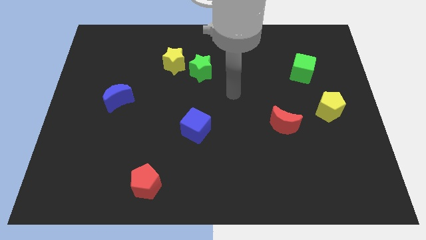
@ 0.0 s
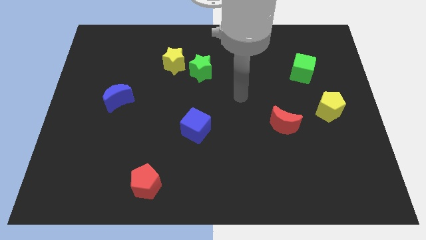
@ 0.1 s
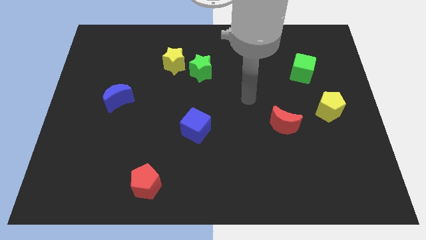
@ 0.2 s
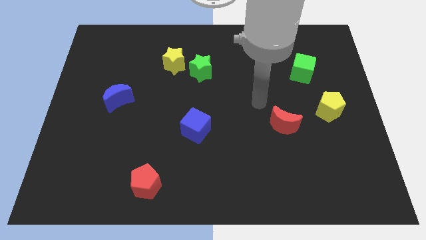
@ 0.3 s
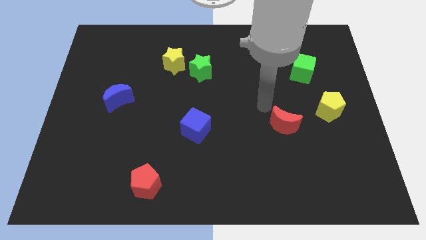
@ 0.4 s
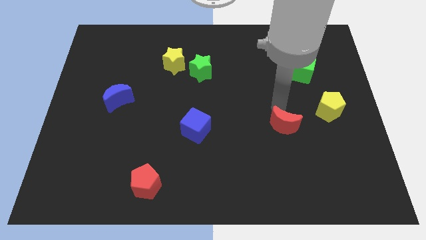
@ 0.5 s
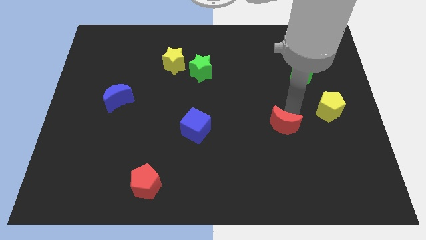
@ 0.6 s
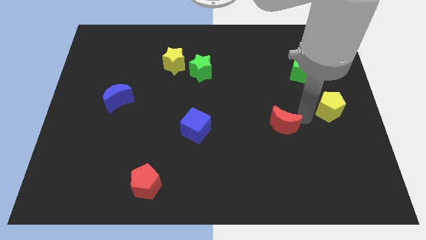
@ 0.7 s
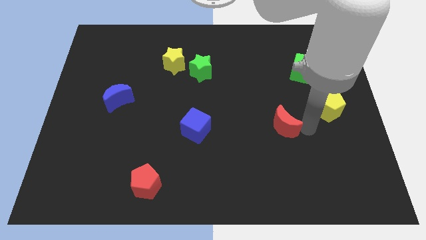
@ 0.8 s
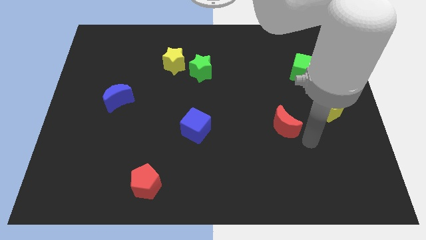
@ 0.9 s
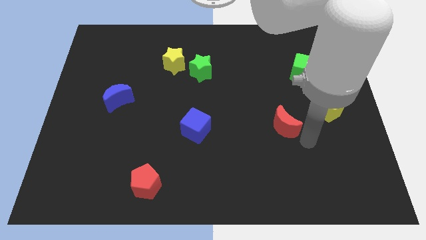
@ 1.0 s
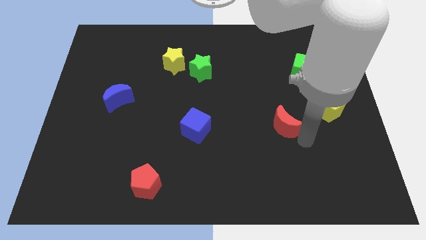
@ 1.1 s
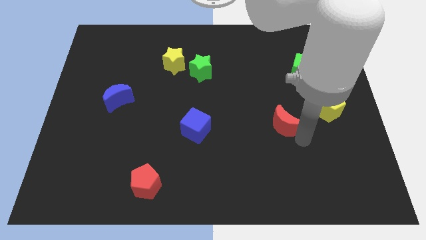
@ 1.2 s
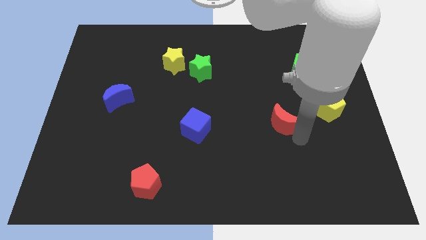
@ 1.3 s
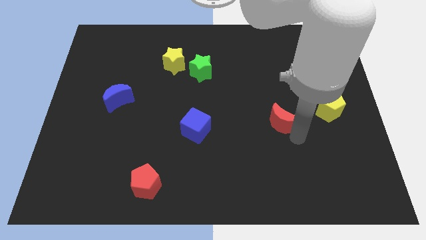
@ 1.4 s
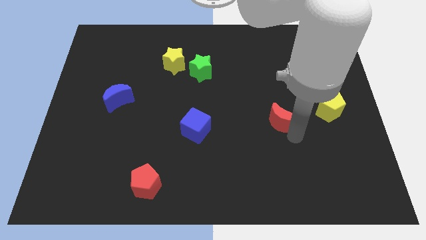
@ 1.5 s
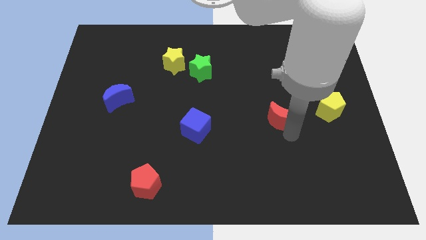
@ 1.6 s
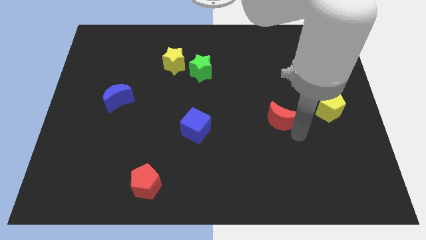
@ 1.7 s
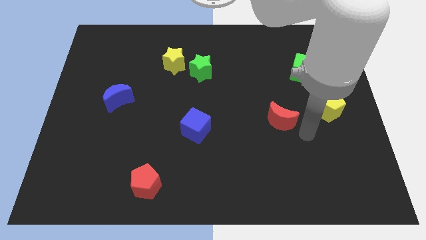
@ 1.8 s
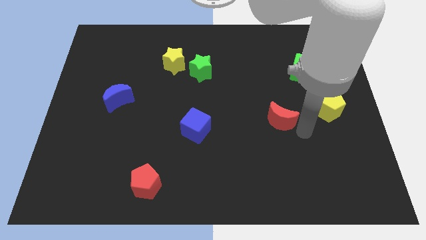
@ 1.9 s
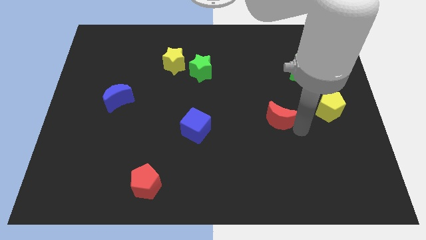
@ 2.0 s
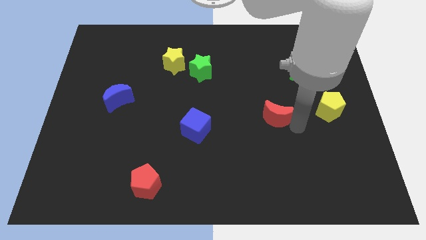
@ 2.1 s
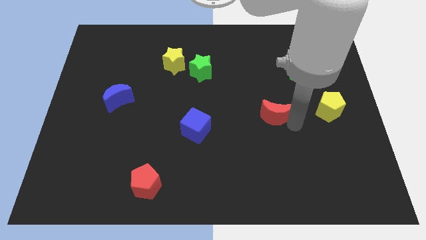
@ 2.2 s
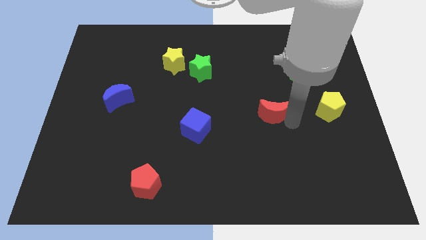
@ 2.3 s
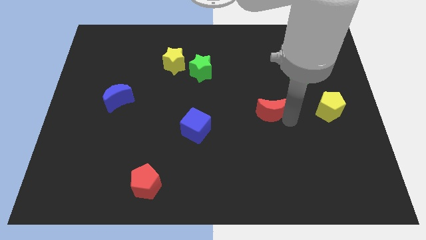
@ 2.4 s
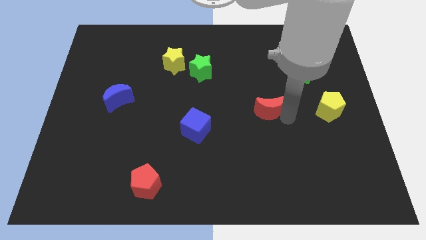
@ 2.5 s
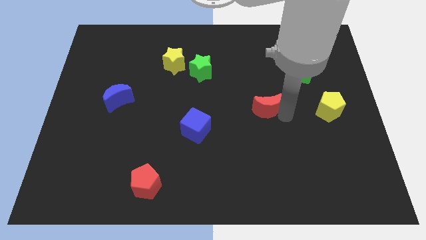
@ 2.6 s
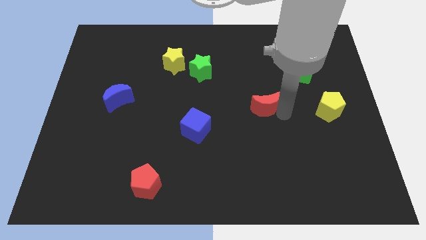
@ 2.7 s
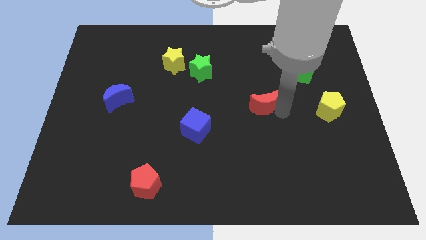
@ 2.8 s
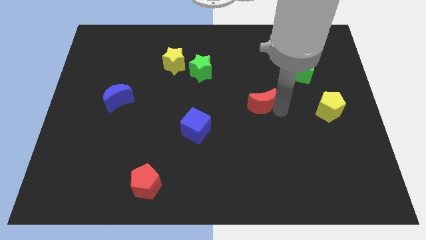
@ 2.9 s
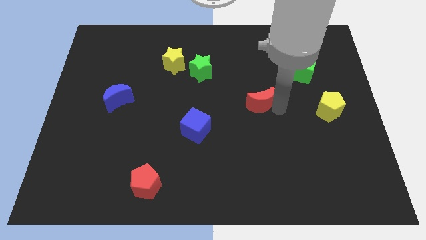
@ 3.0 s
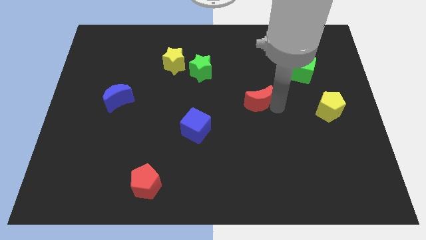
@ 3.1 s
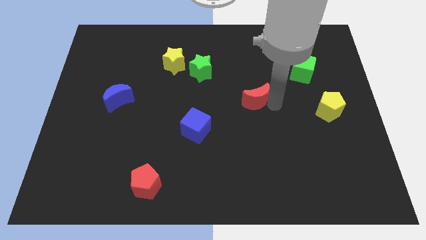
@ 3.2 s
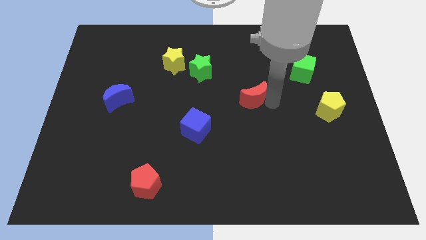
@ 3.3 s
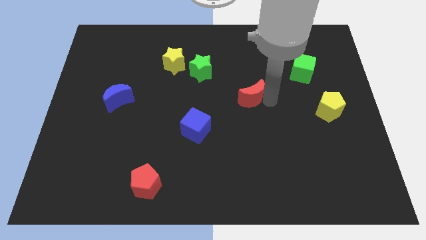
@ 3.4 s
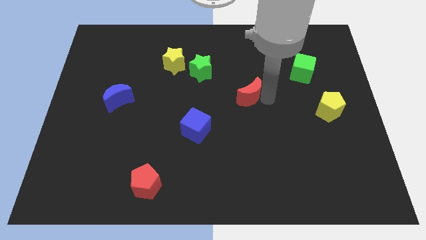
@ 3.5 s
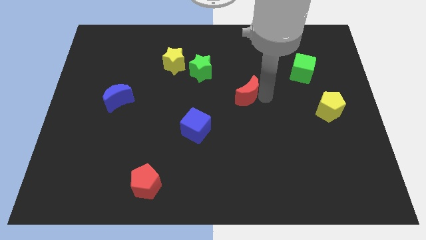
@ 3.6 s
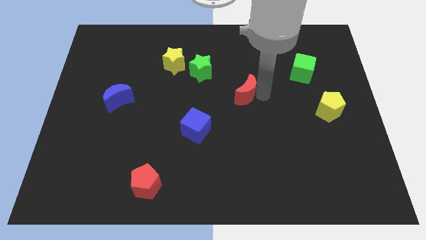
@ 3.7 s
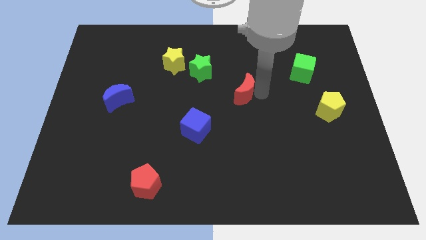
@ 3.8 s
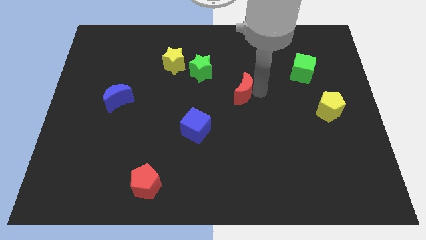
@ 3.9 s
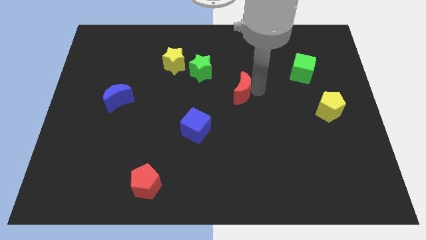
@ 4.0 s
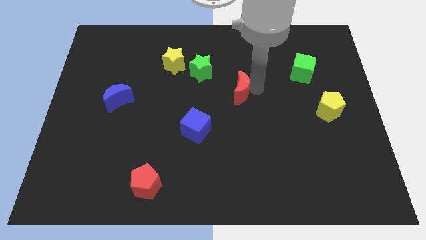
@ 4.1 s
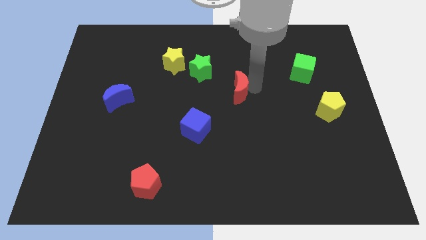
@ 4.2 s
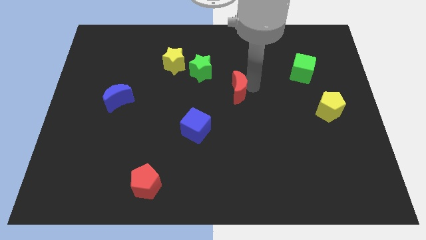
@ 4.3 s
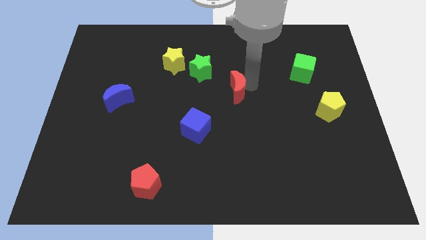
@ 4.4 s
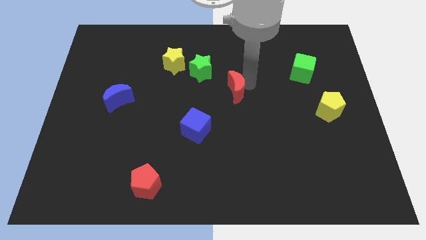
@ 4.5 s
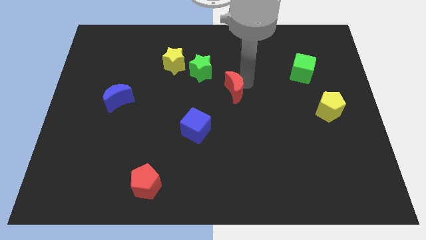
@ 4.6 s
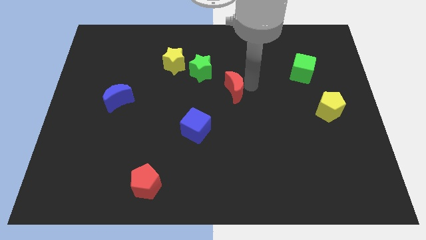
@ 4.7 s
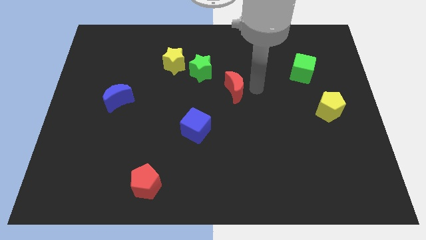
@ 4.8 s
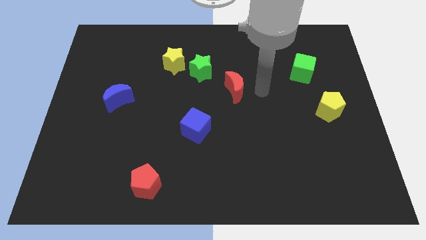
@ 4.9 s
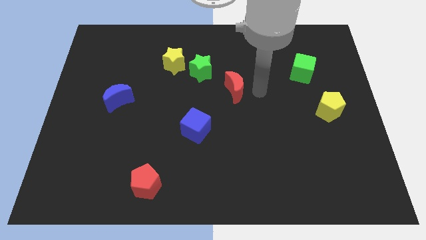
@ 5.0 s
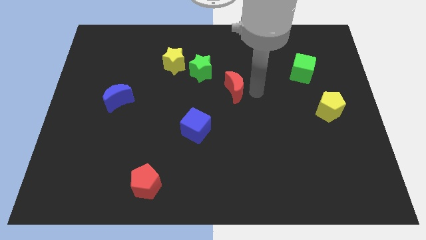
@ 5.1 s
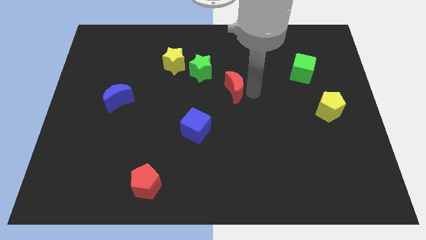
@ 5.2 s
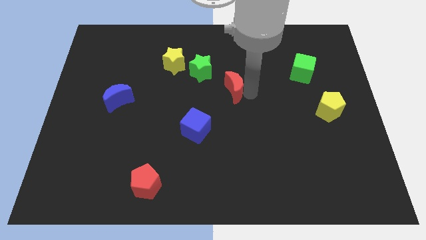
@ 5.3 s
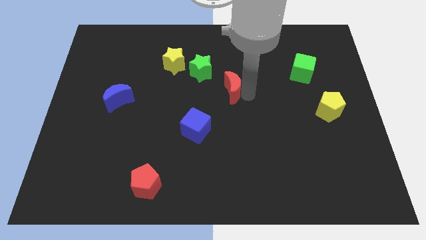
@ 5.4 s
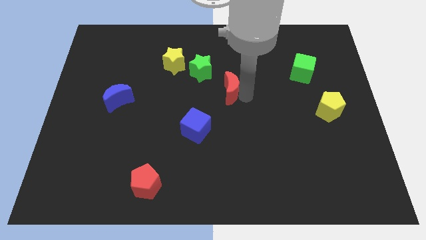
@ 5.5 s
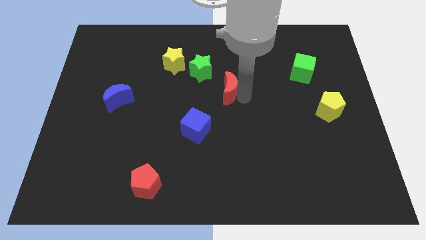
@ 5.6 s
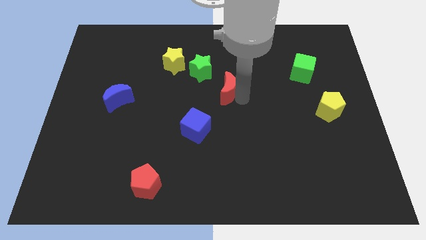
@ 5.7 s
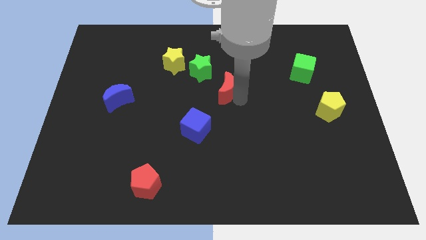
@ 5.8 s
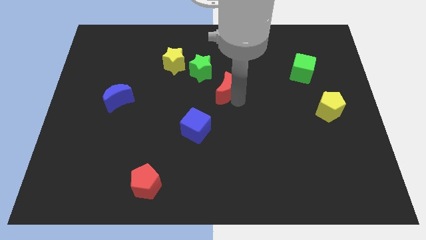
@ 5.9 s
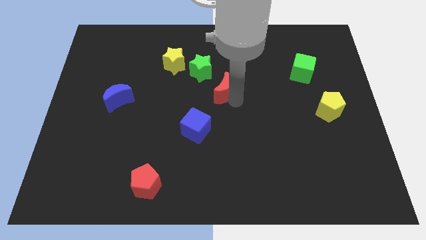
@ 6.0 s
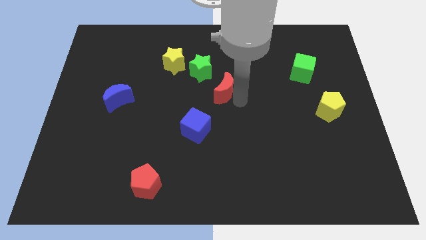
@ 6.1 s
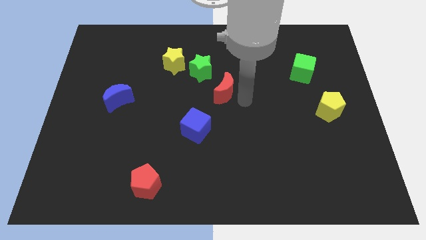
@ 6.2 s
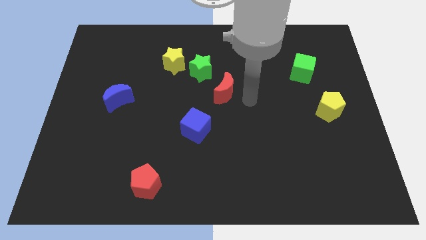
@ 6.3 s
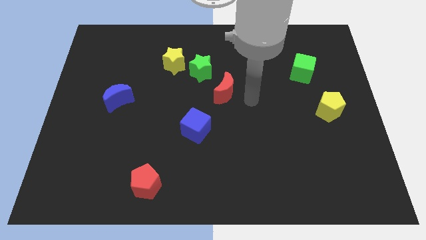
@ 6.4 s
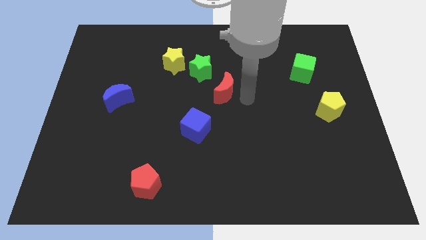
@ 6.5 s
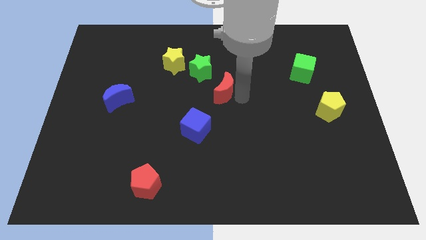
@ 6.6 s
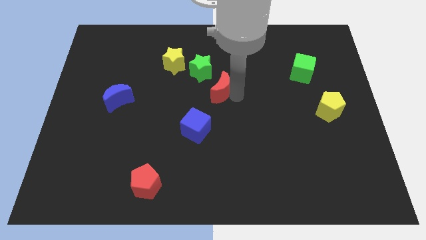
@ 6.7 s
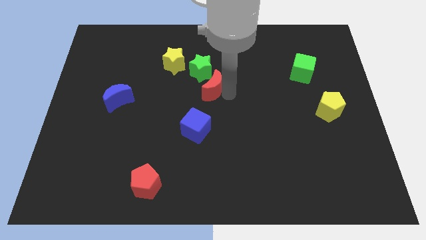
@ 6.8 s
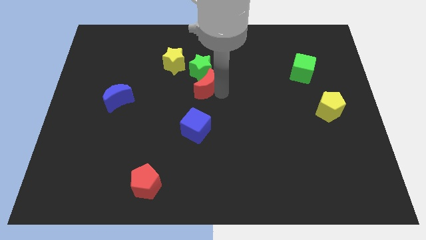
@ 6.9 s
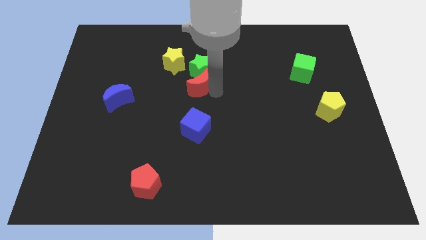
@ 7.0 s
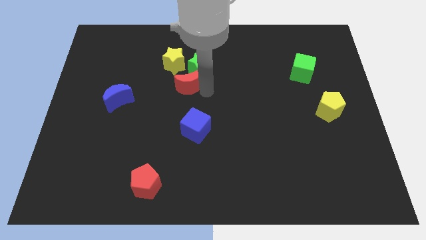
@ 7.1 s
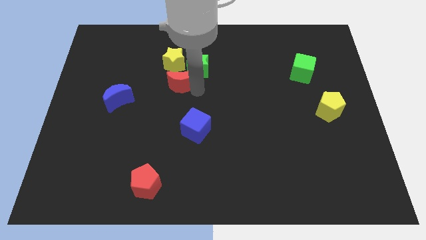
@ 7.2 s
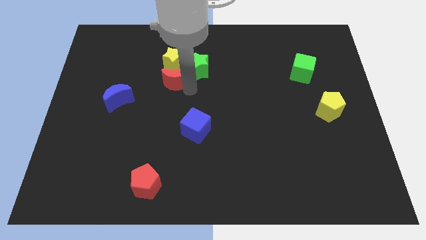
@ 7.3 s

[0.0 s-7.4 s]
slide the red moon close to the yellow star

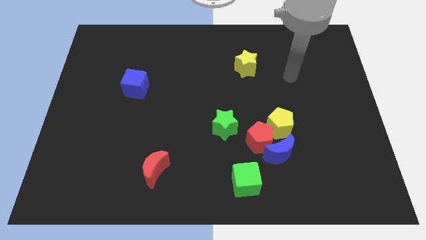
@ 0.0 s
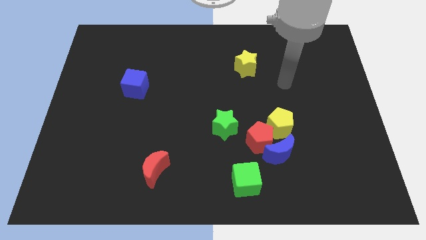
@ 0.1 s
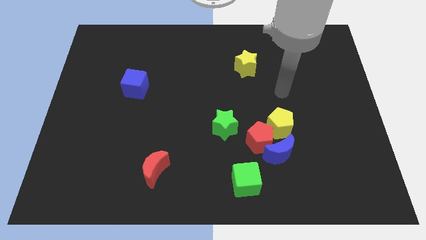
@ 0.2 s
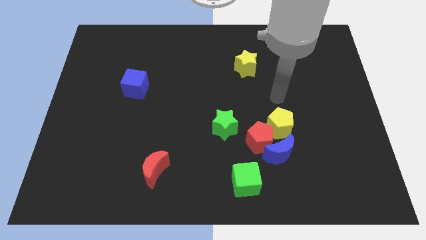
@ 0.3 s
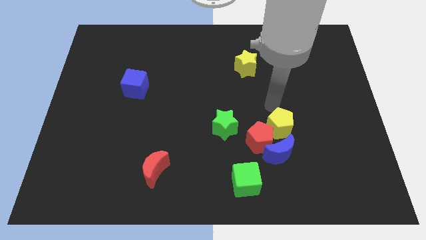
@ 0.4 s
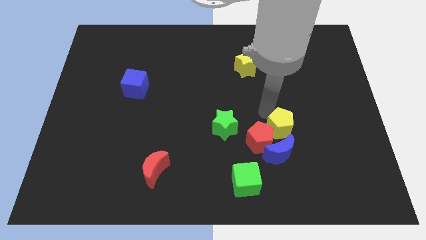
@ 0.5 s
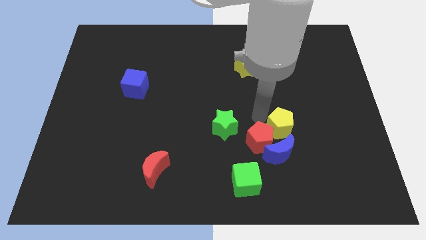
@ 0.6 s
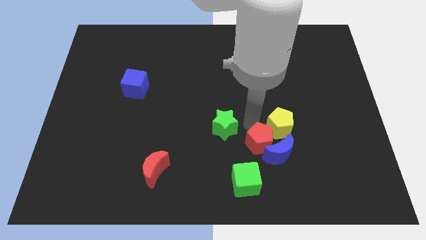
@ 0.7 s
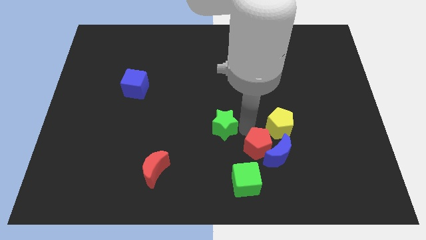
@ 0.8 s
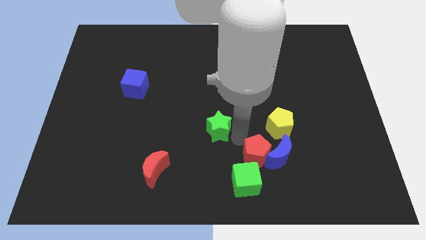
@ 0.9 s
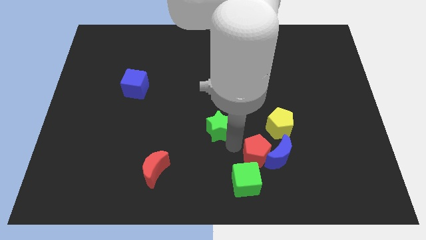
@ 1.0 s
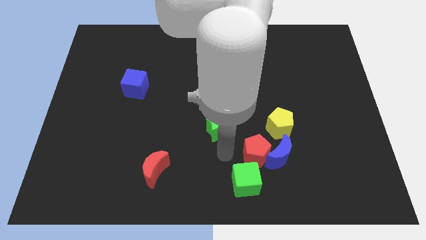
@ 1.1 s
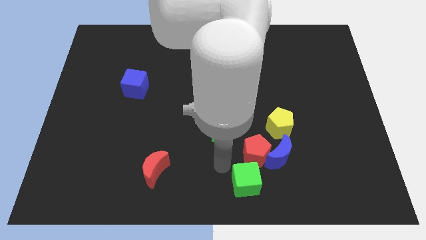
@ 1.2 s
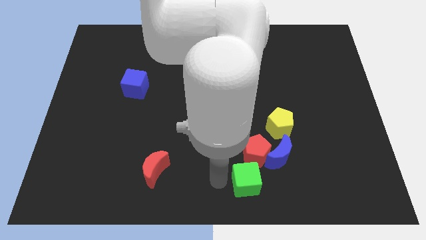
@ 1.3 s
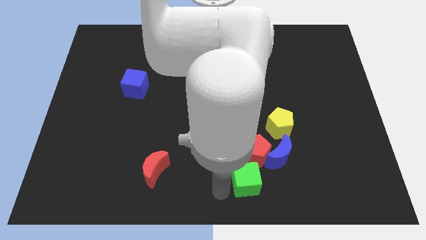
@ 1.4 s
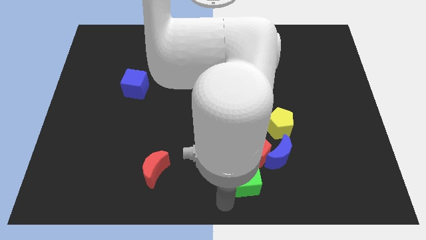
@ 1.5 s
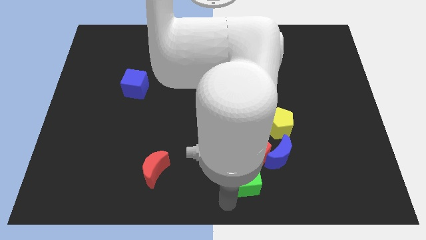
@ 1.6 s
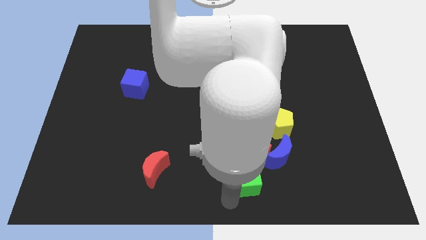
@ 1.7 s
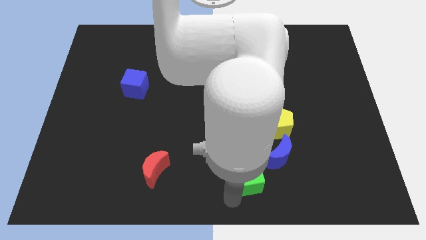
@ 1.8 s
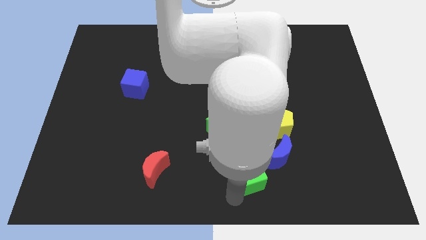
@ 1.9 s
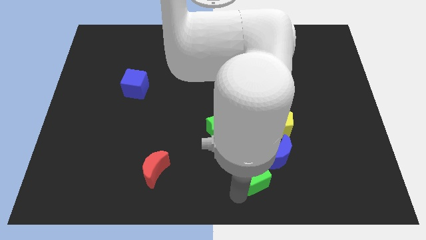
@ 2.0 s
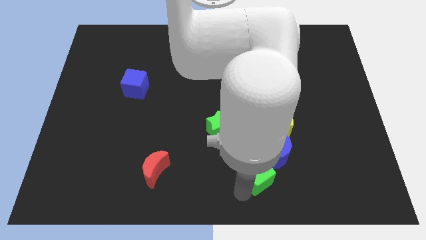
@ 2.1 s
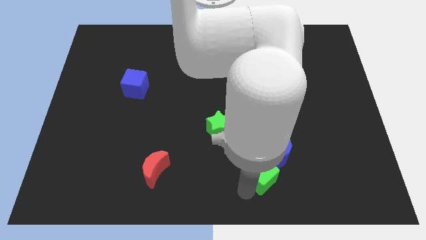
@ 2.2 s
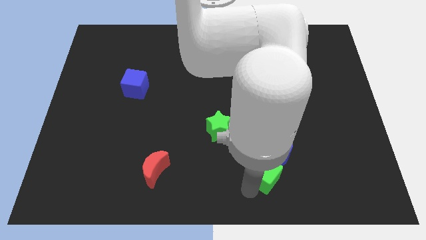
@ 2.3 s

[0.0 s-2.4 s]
push the green cube next to the blue moon
